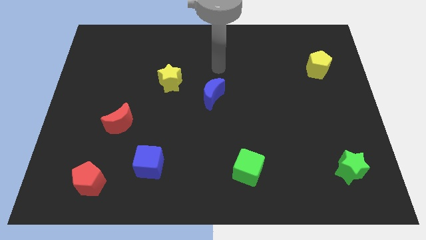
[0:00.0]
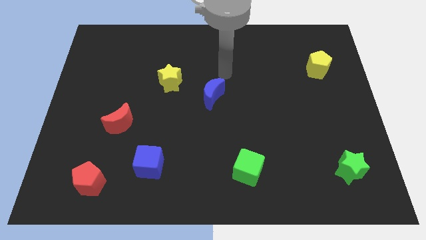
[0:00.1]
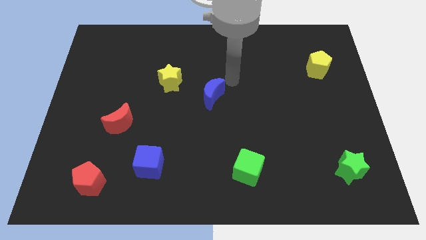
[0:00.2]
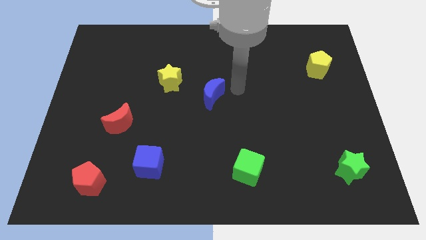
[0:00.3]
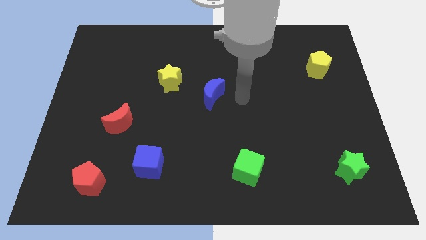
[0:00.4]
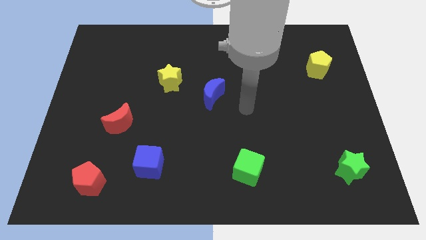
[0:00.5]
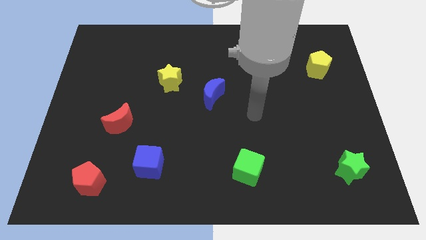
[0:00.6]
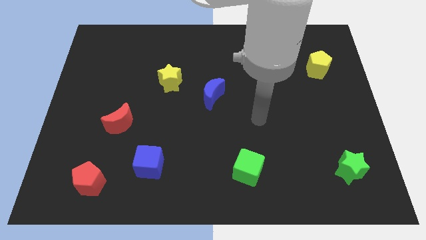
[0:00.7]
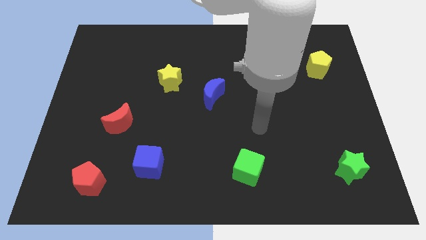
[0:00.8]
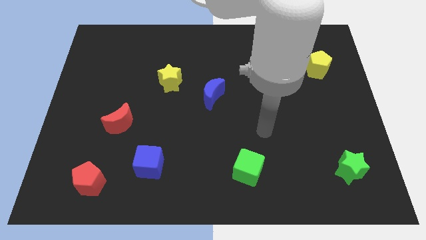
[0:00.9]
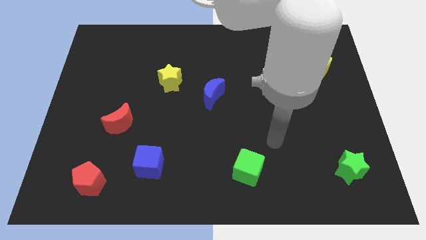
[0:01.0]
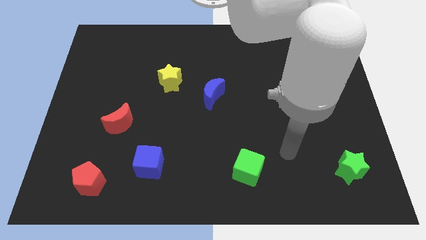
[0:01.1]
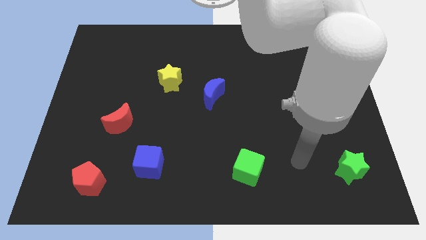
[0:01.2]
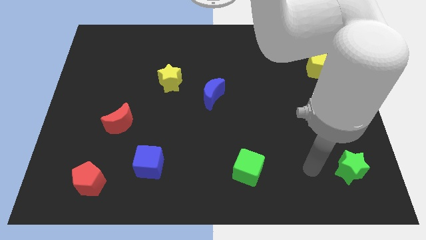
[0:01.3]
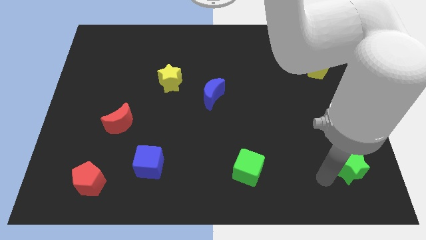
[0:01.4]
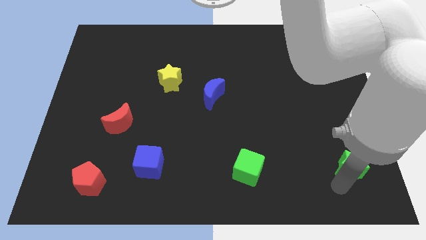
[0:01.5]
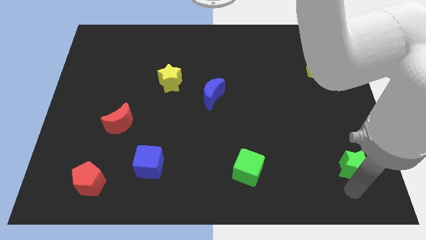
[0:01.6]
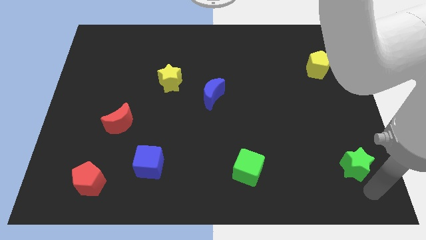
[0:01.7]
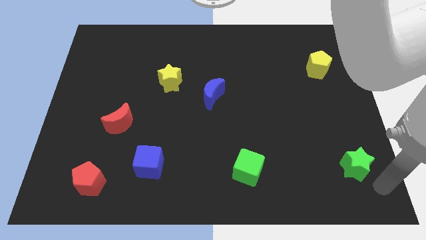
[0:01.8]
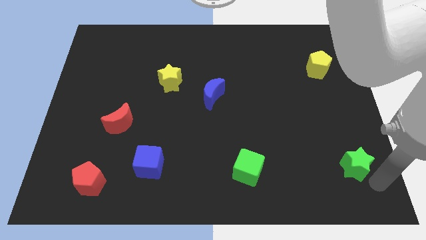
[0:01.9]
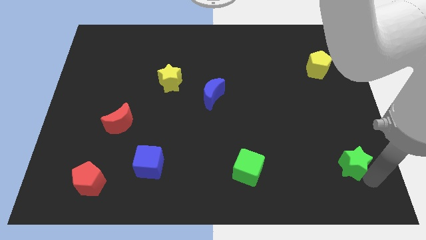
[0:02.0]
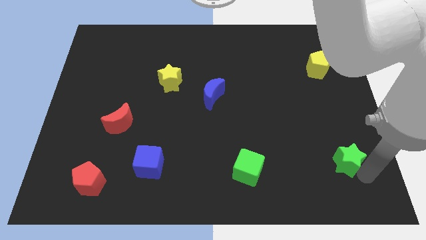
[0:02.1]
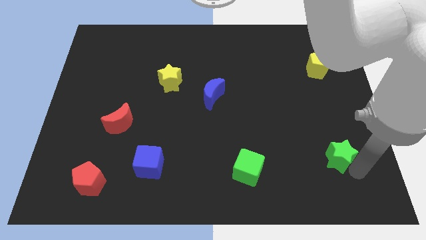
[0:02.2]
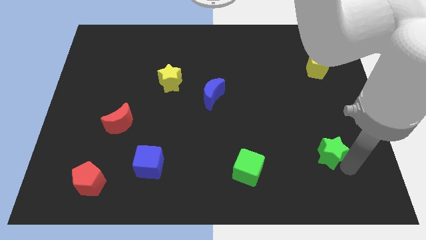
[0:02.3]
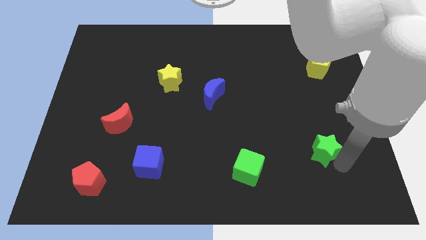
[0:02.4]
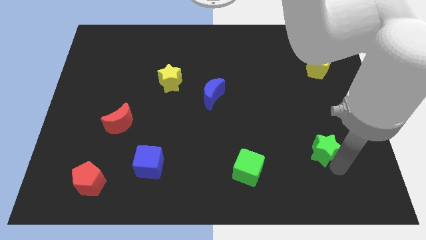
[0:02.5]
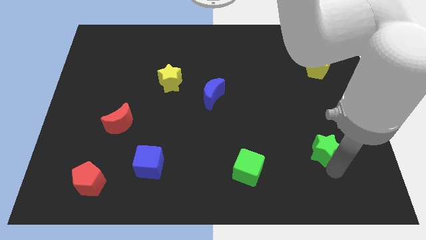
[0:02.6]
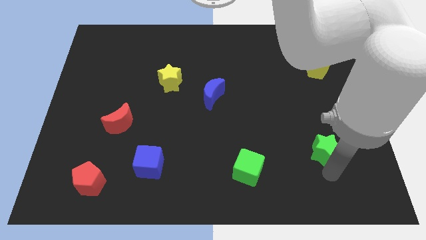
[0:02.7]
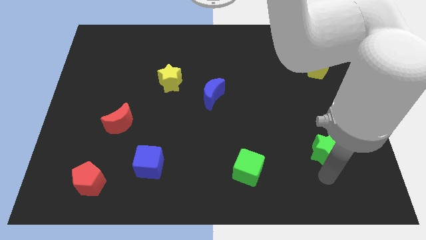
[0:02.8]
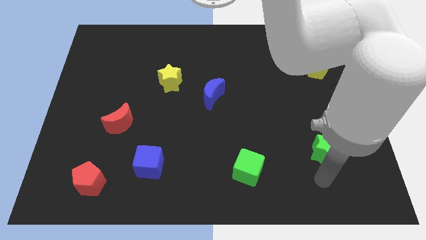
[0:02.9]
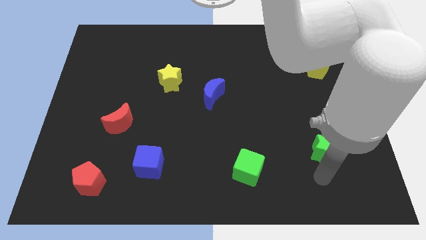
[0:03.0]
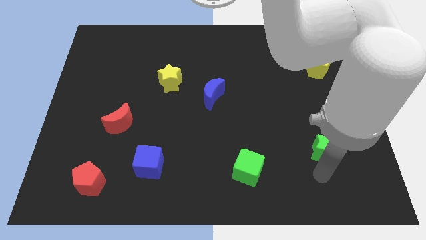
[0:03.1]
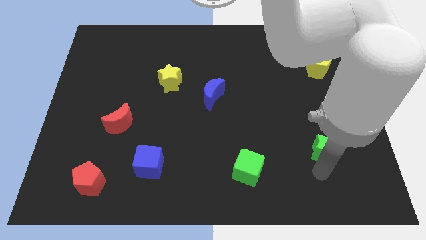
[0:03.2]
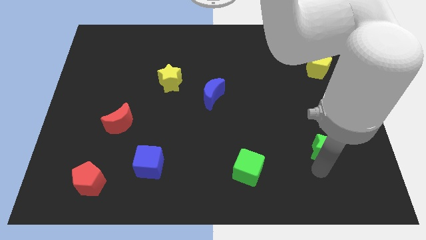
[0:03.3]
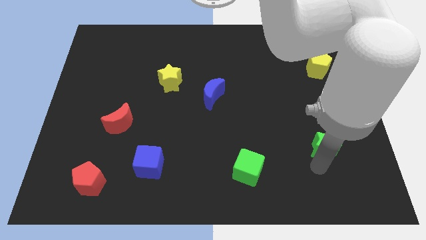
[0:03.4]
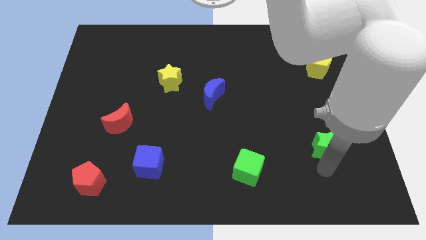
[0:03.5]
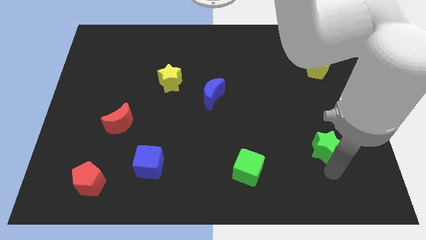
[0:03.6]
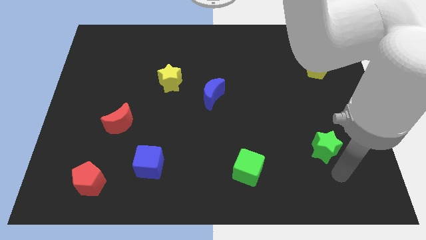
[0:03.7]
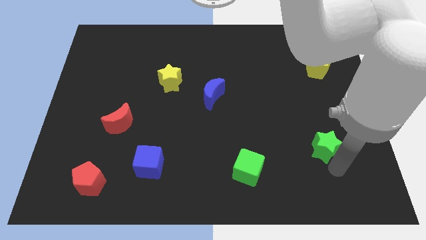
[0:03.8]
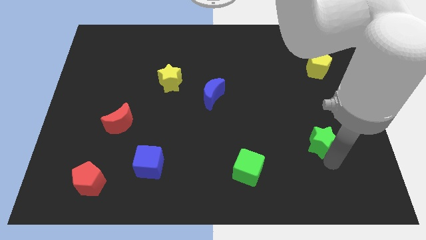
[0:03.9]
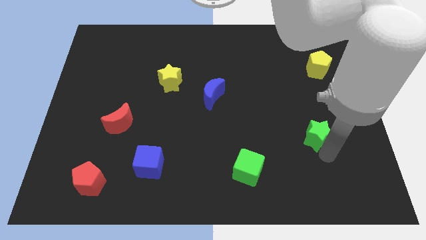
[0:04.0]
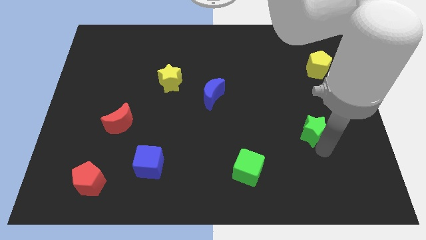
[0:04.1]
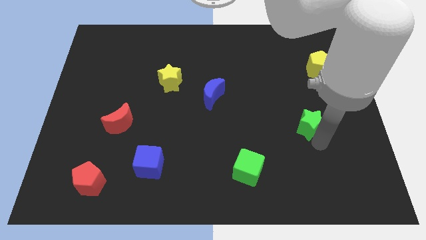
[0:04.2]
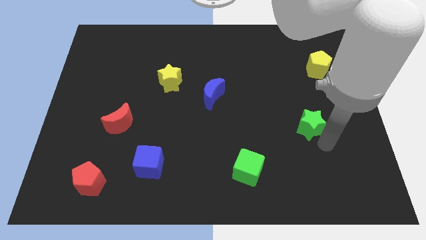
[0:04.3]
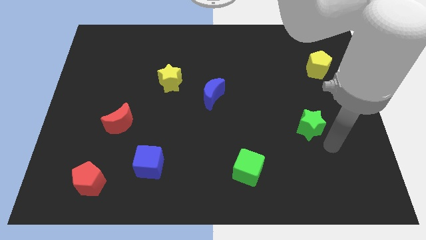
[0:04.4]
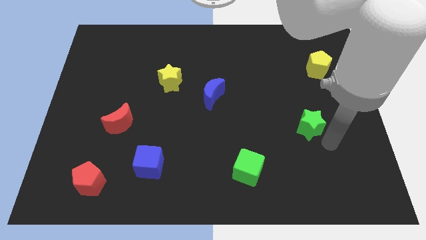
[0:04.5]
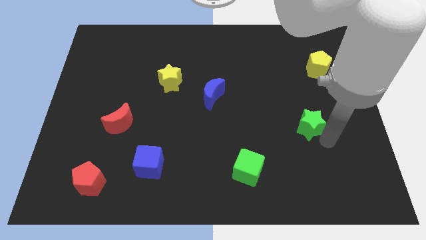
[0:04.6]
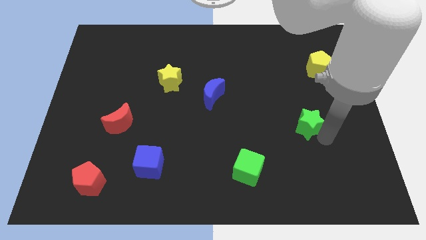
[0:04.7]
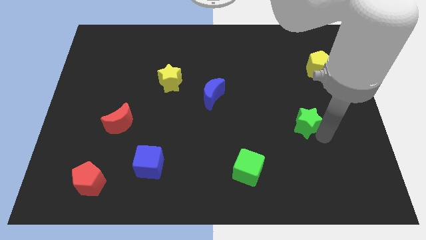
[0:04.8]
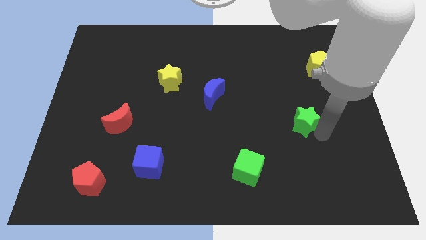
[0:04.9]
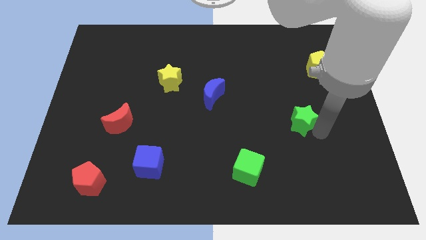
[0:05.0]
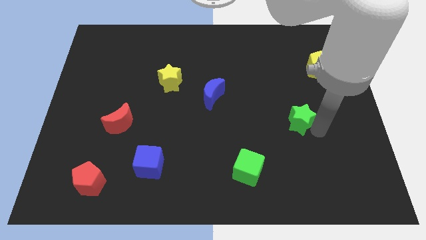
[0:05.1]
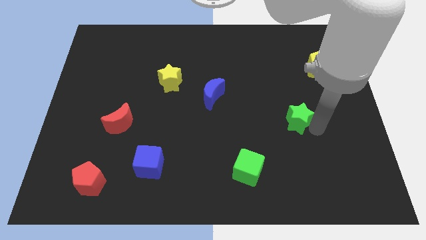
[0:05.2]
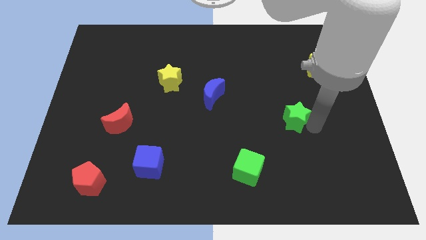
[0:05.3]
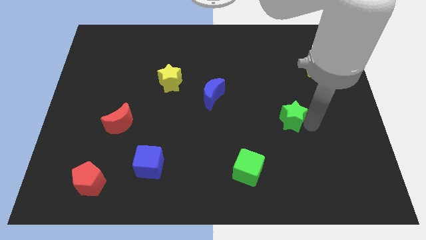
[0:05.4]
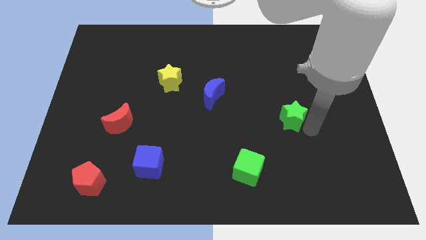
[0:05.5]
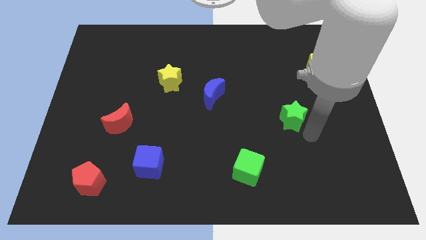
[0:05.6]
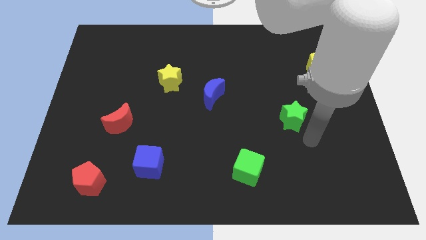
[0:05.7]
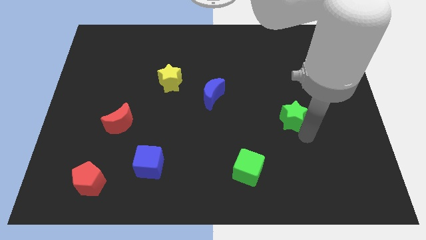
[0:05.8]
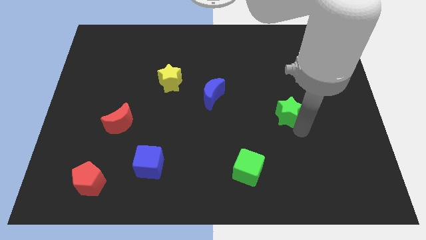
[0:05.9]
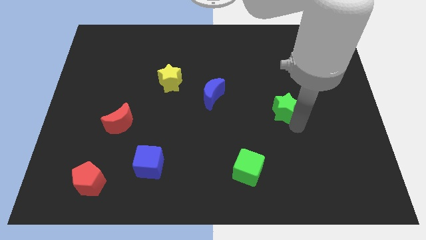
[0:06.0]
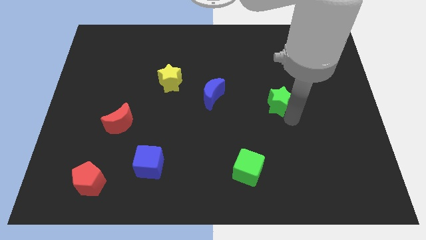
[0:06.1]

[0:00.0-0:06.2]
push the green star right of the blue moon

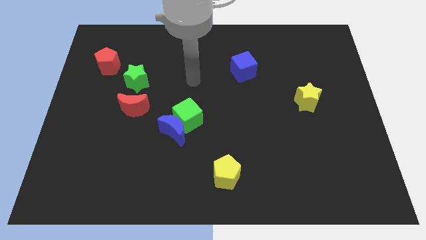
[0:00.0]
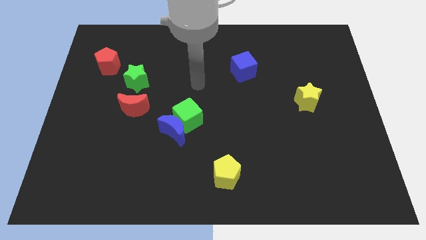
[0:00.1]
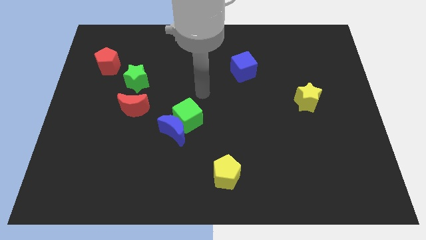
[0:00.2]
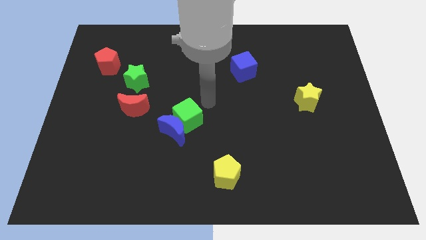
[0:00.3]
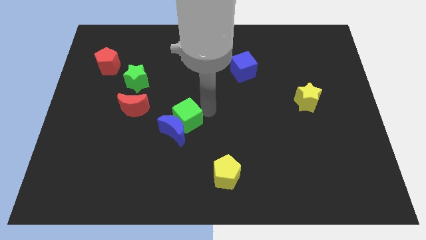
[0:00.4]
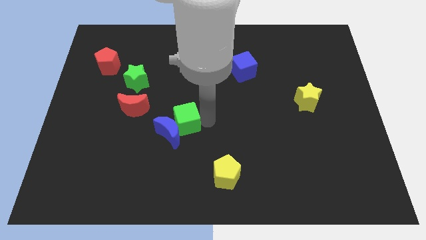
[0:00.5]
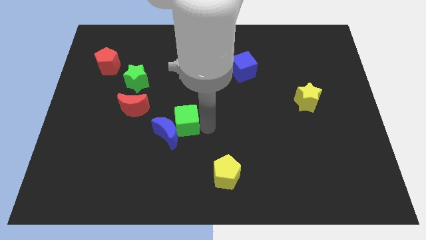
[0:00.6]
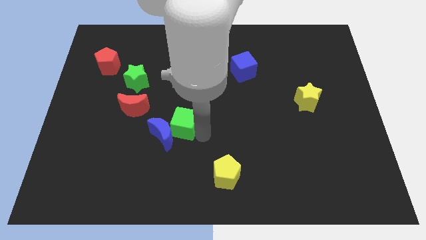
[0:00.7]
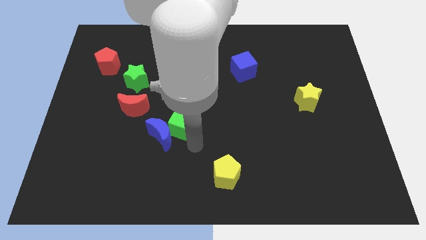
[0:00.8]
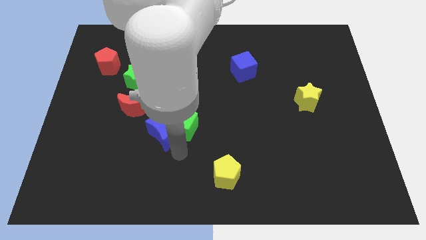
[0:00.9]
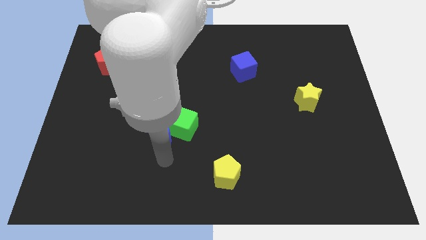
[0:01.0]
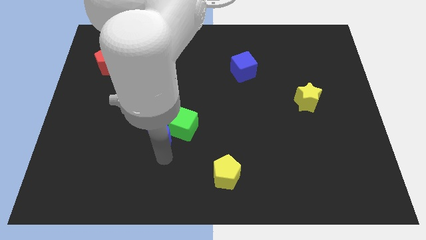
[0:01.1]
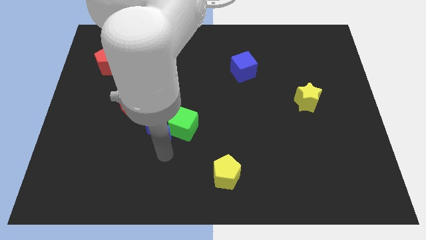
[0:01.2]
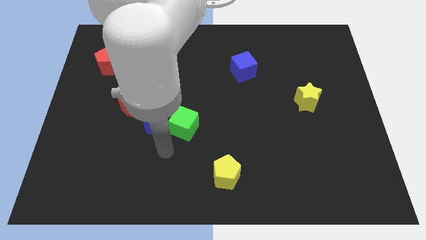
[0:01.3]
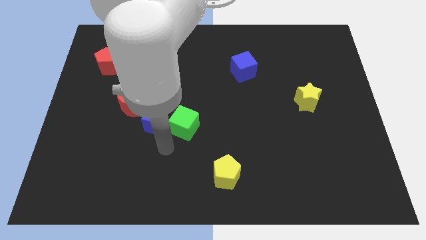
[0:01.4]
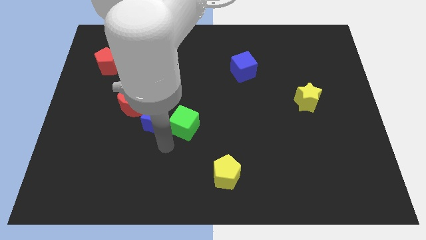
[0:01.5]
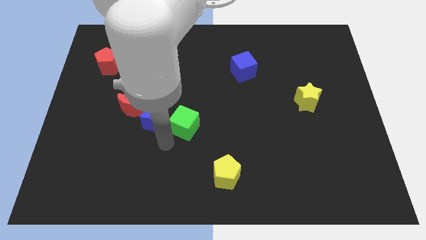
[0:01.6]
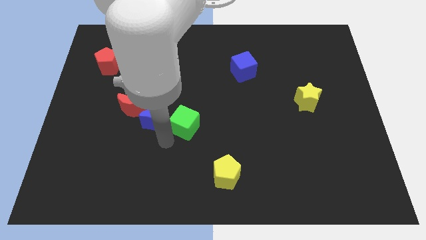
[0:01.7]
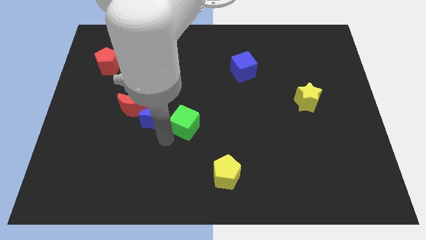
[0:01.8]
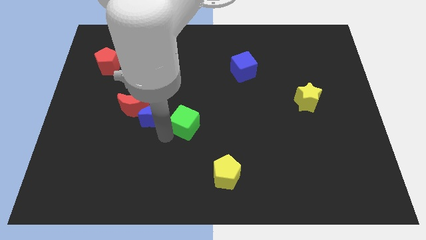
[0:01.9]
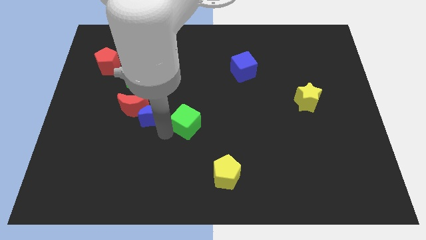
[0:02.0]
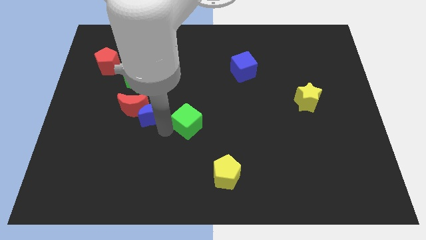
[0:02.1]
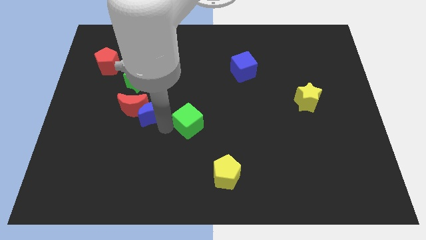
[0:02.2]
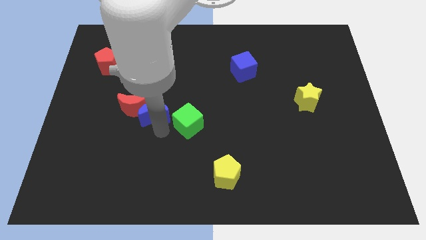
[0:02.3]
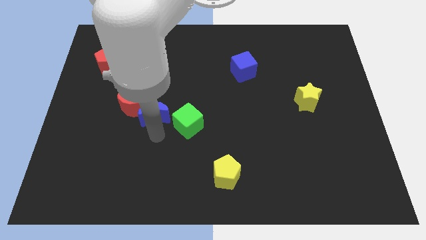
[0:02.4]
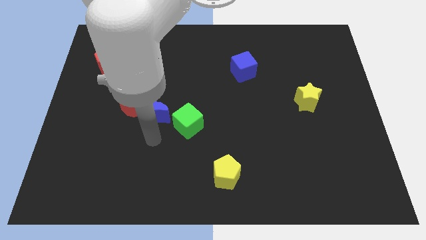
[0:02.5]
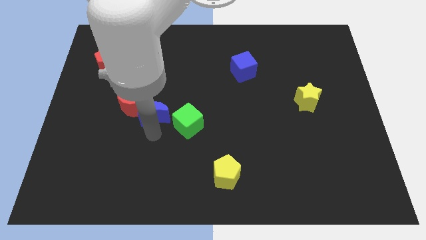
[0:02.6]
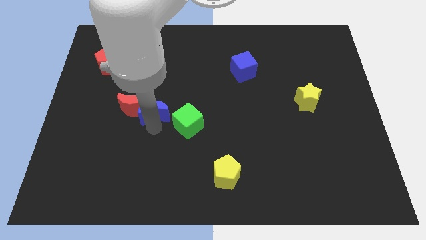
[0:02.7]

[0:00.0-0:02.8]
move the blue moon to the bottom right of the green star
